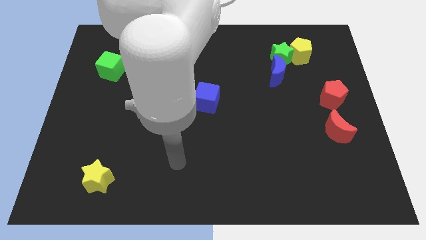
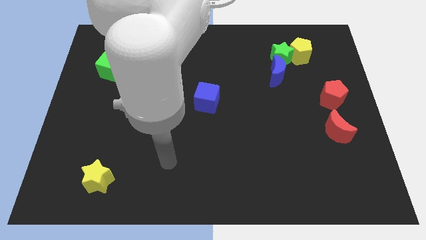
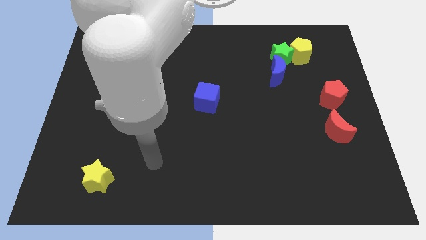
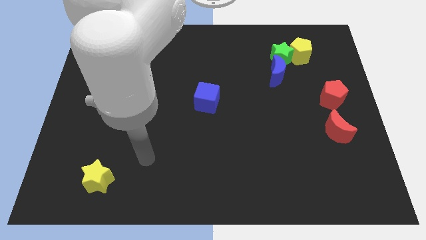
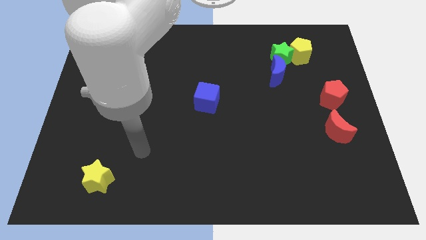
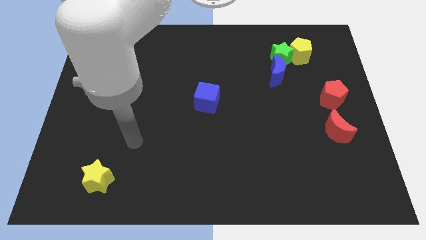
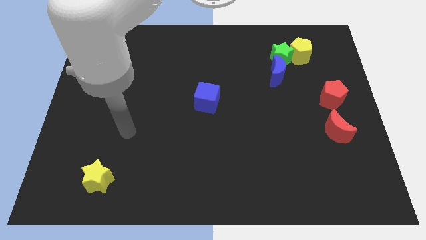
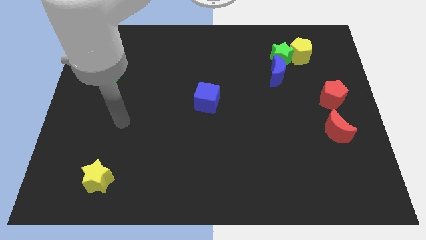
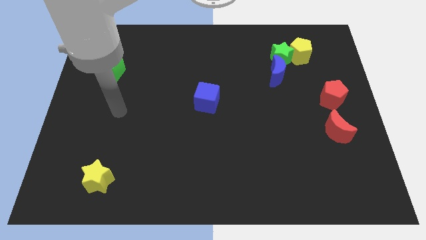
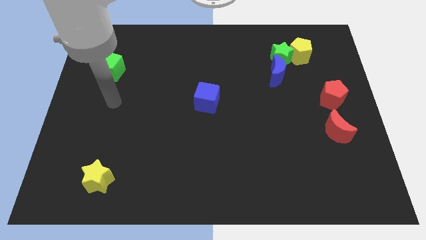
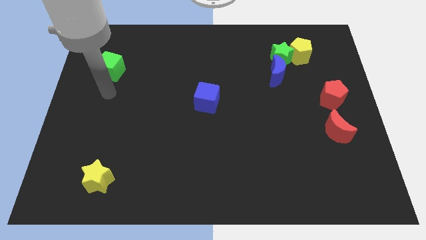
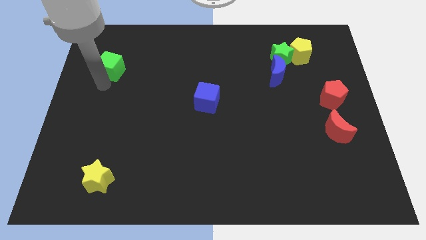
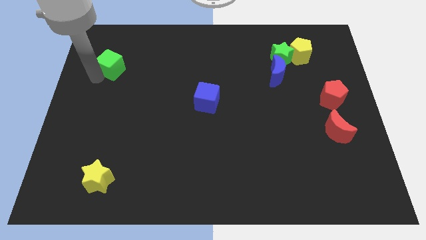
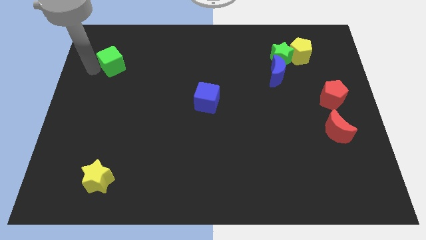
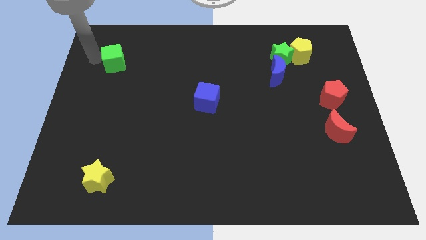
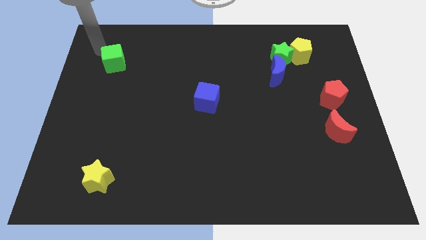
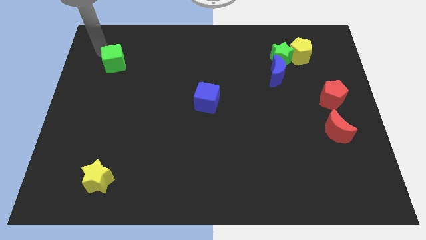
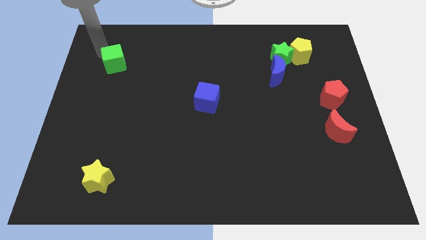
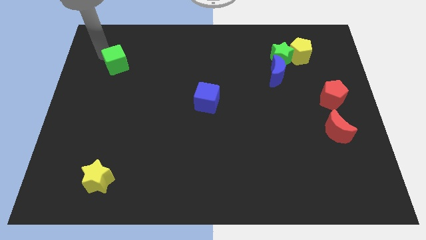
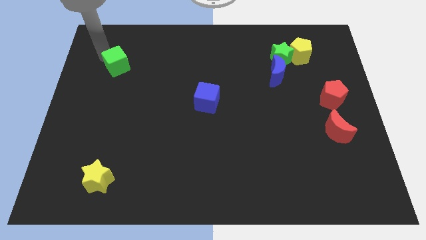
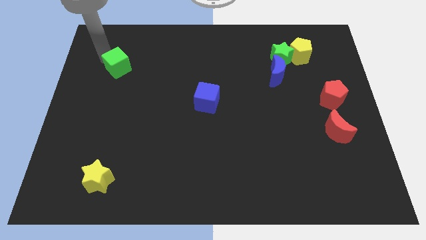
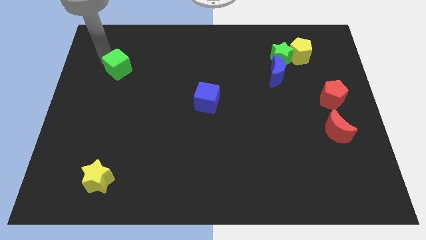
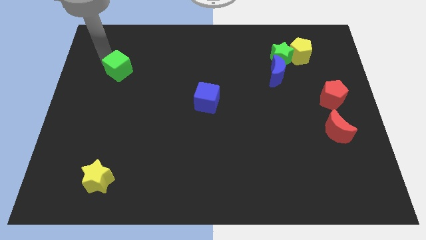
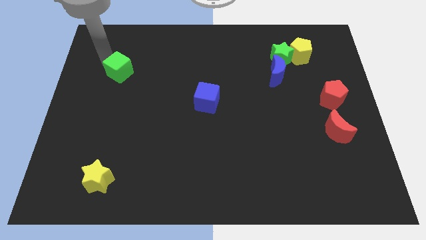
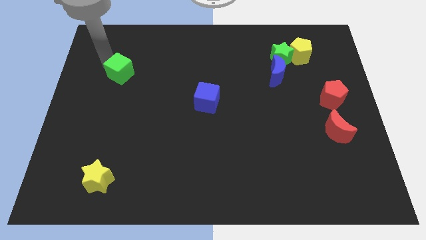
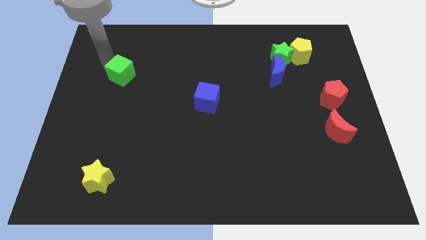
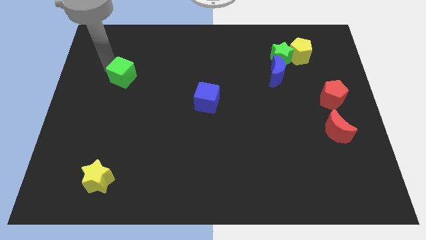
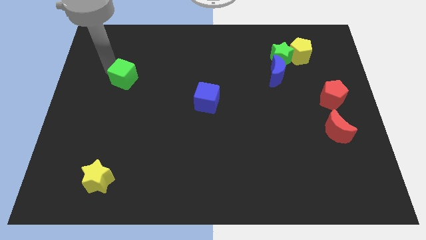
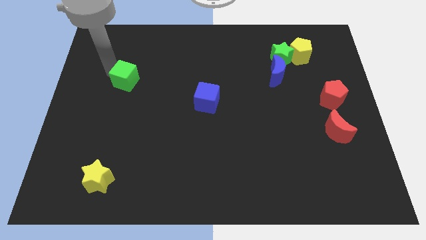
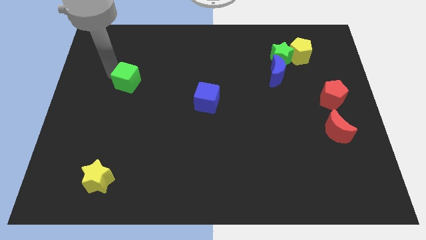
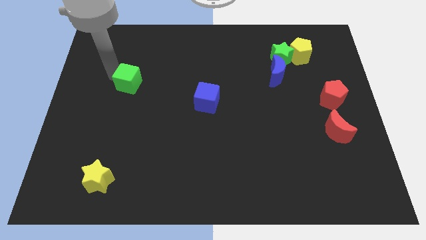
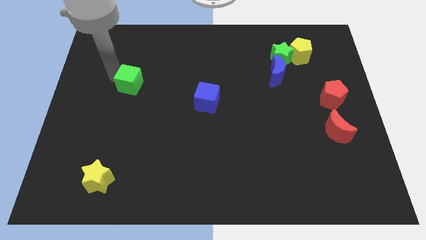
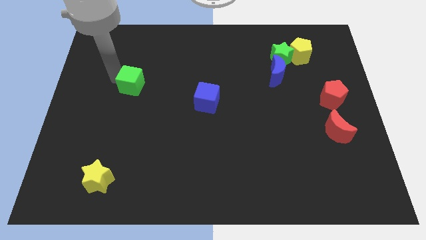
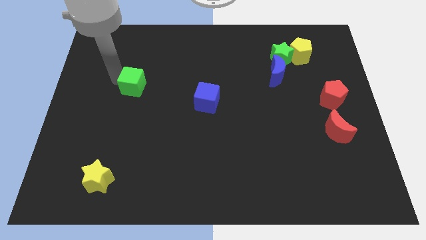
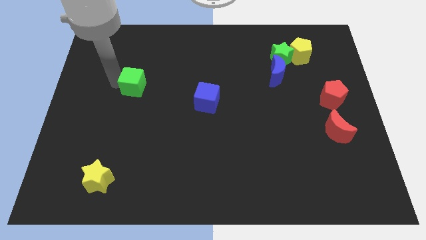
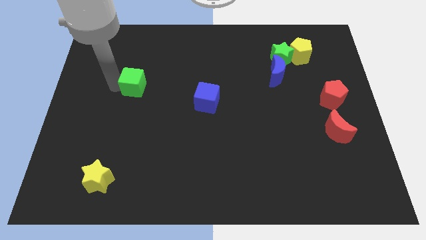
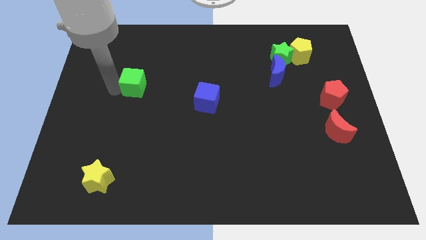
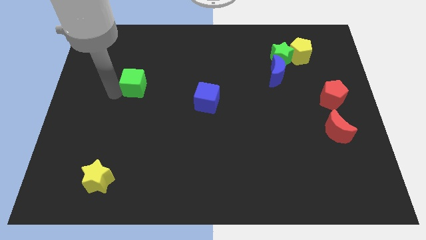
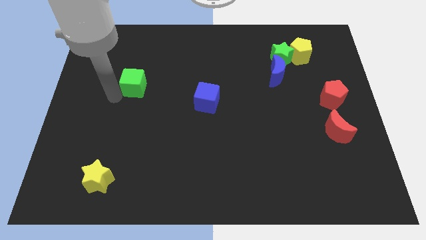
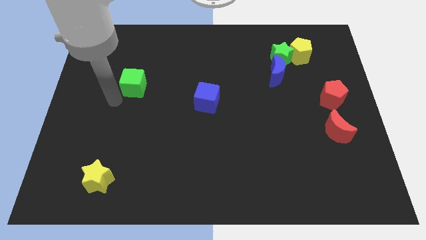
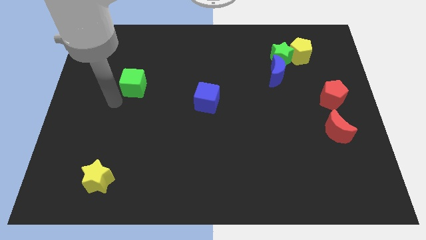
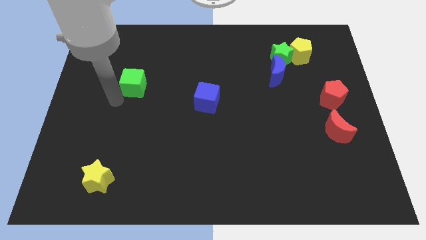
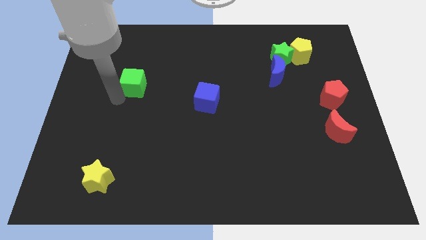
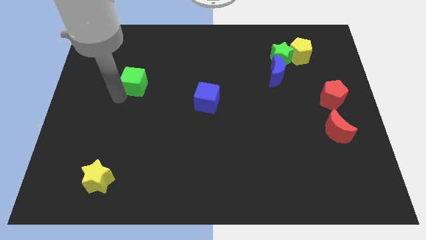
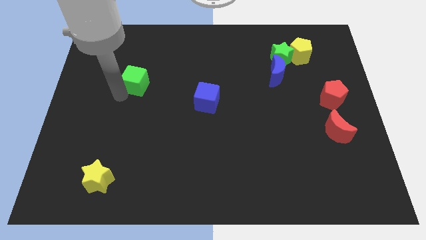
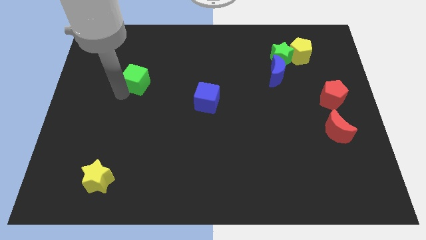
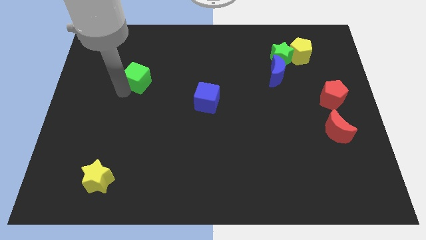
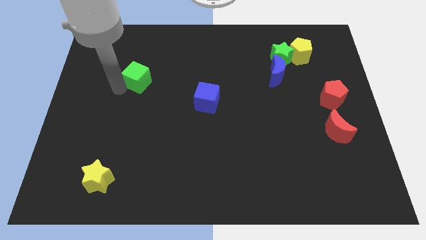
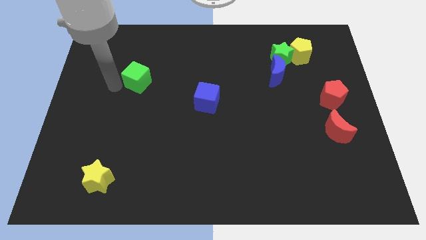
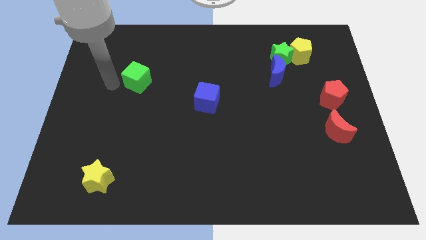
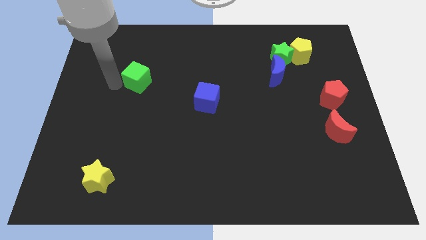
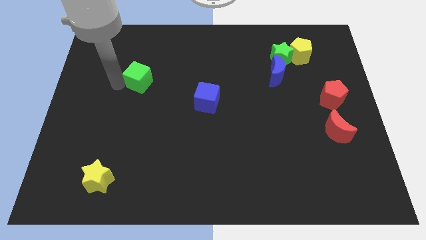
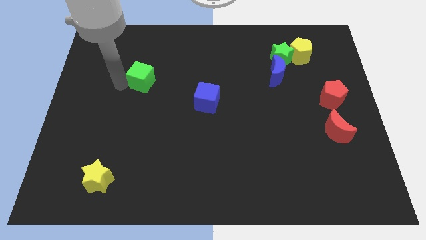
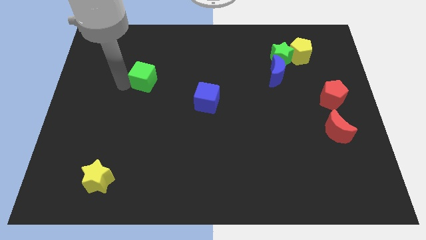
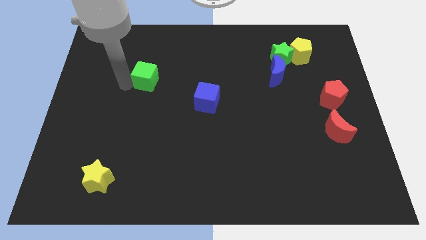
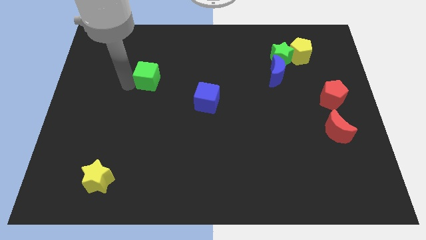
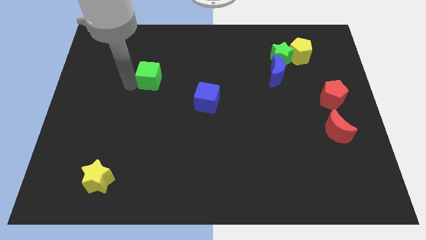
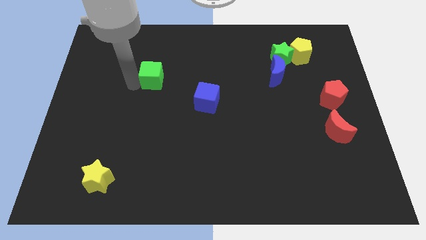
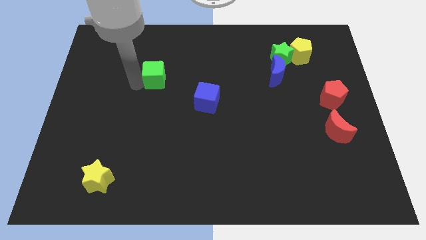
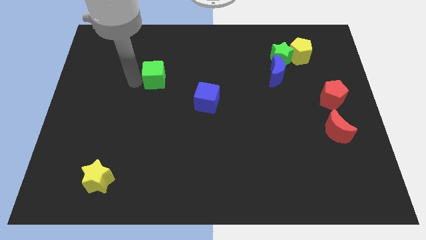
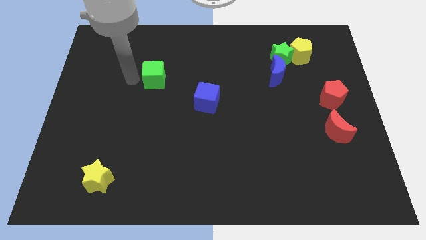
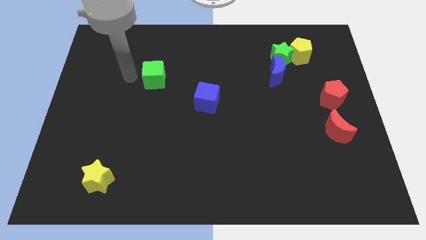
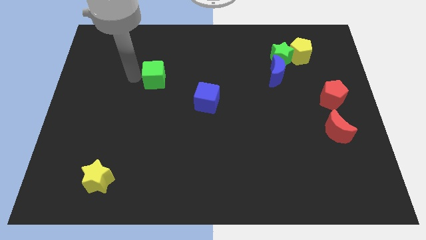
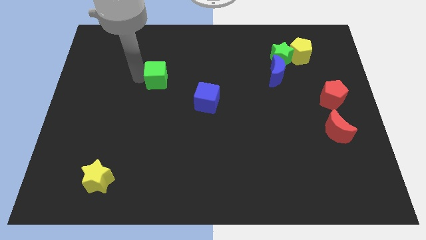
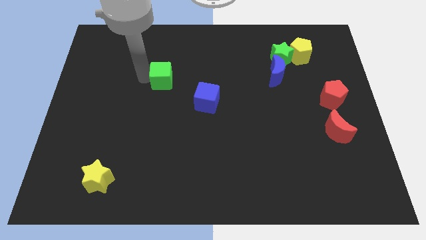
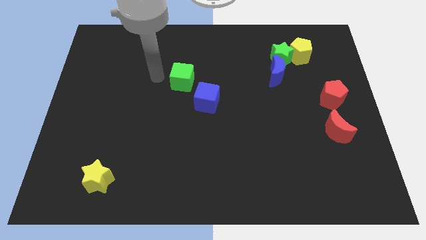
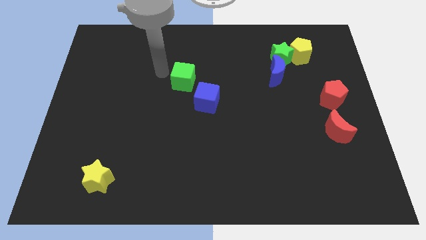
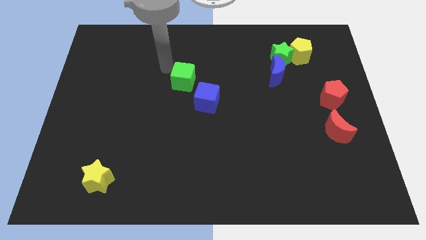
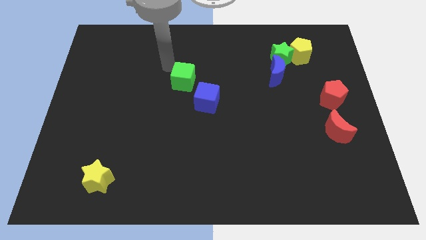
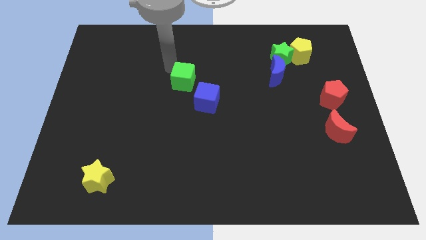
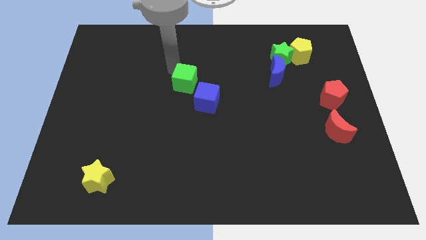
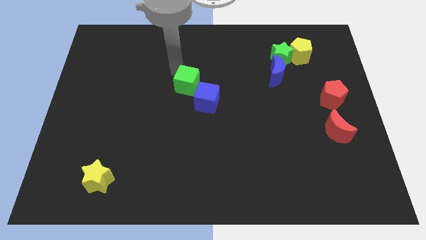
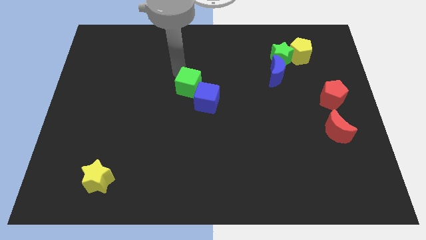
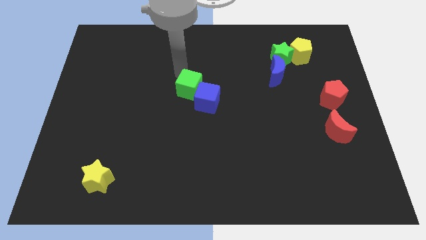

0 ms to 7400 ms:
push the green cube to the blue cube

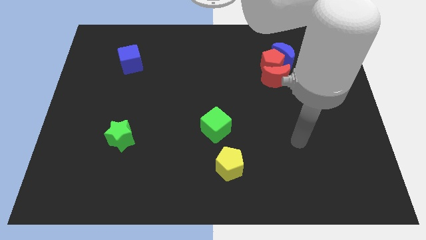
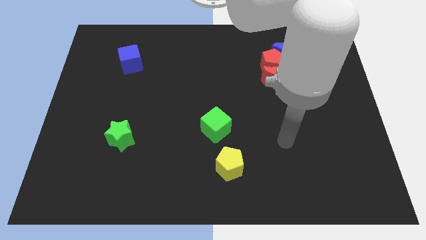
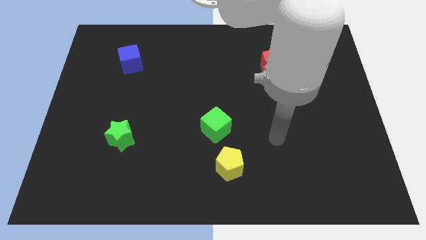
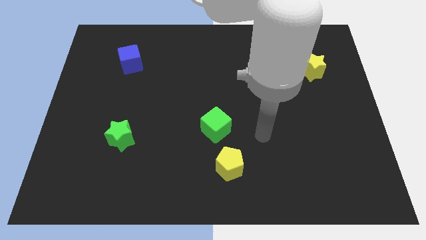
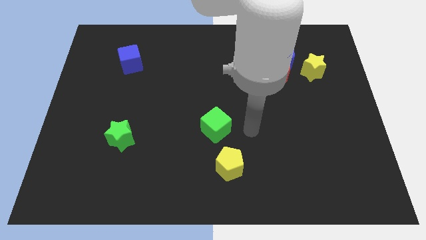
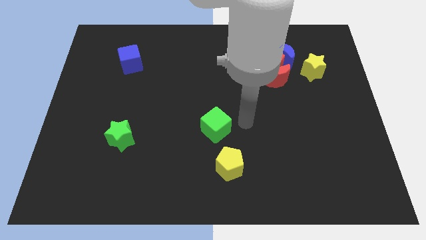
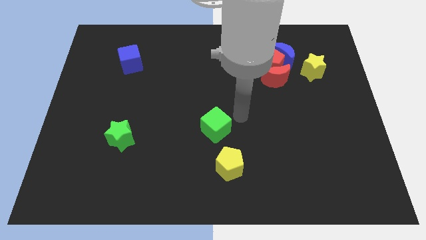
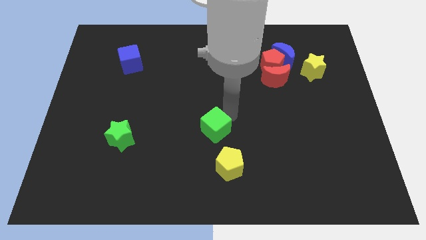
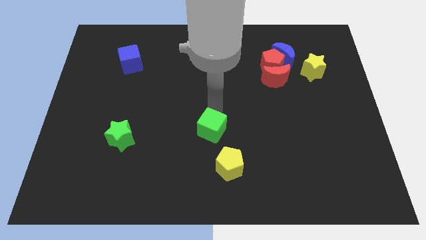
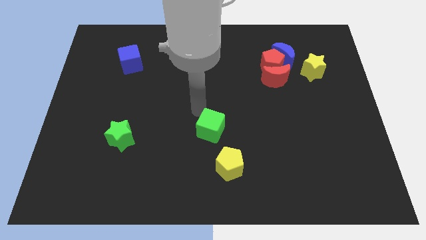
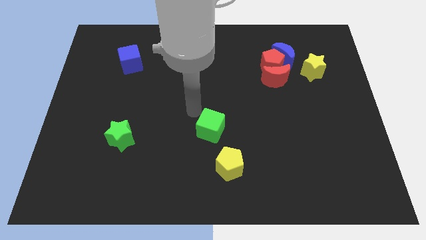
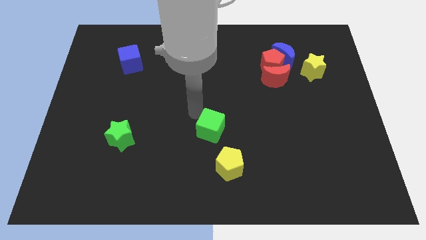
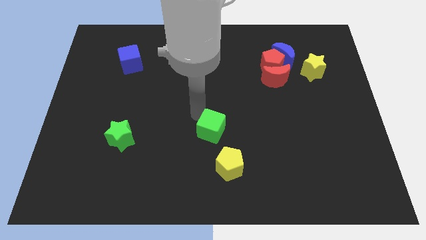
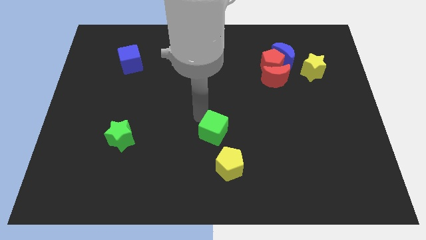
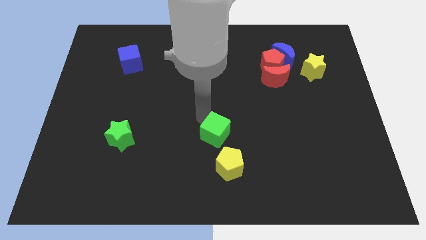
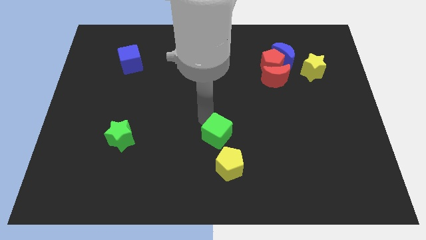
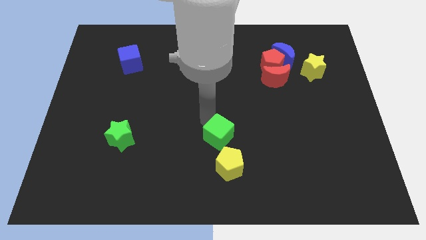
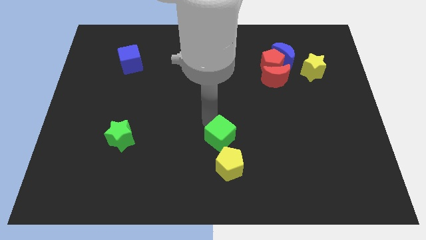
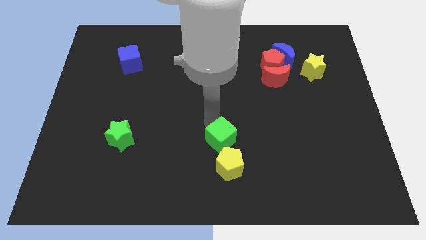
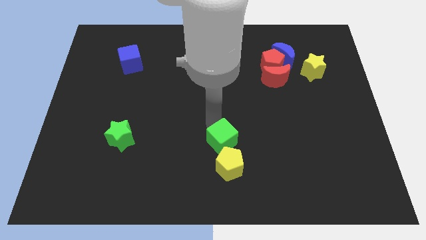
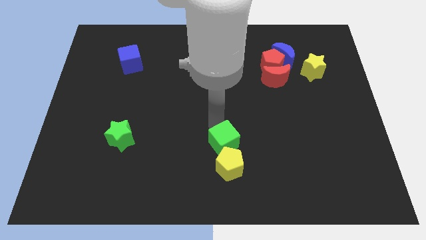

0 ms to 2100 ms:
push the green cube next to the yellow pentagon
